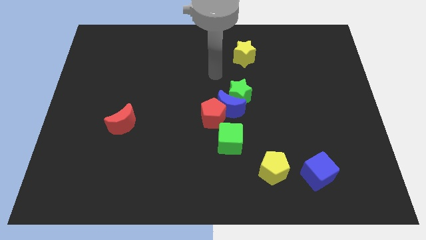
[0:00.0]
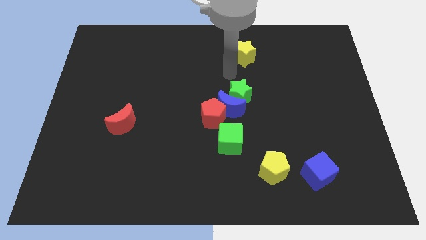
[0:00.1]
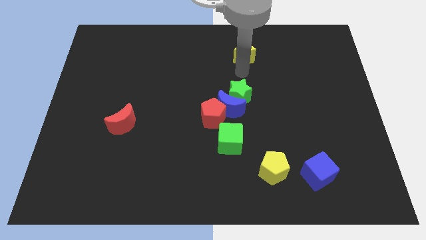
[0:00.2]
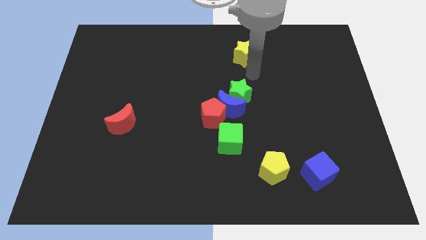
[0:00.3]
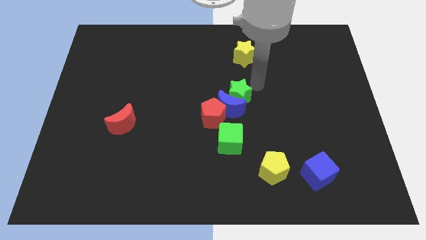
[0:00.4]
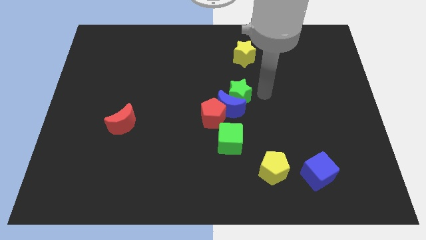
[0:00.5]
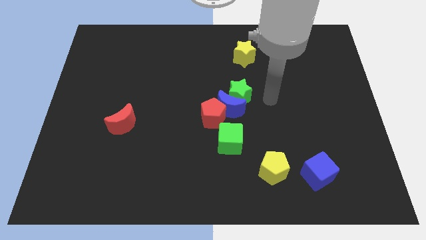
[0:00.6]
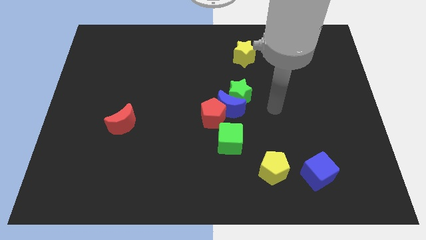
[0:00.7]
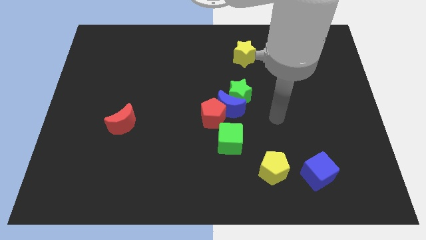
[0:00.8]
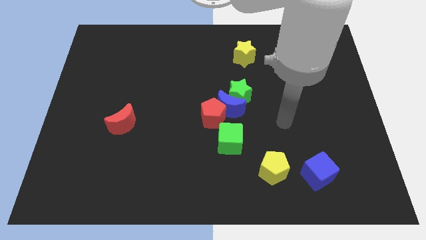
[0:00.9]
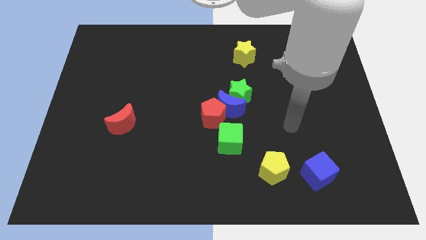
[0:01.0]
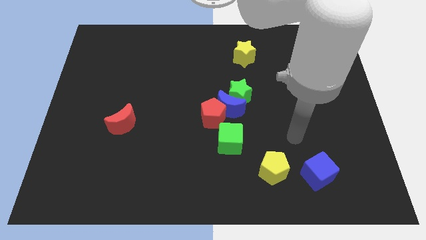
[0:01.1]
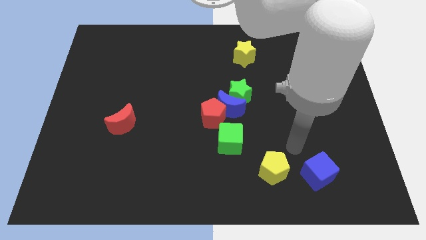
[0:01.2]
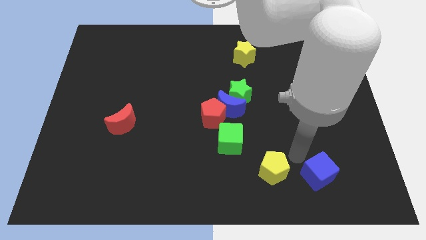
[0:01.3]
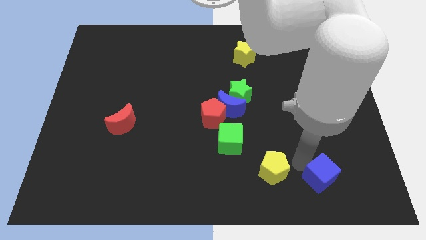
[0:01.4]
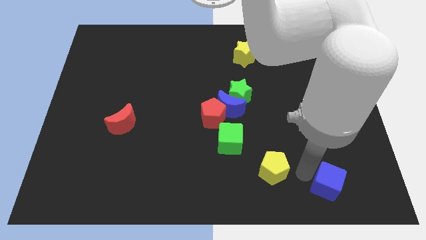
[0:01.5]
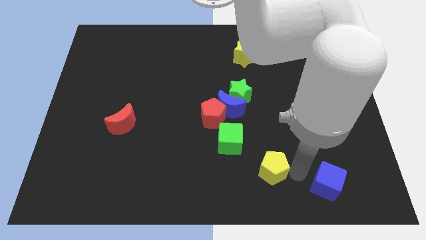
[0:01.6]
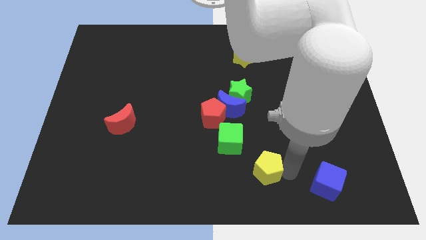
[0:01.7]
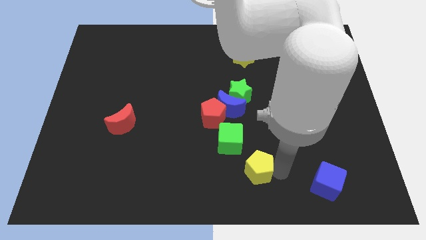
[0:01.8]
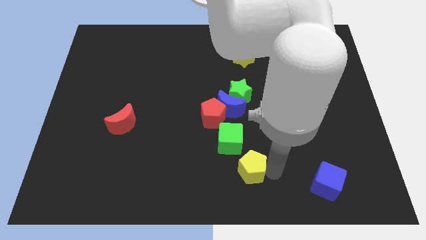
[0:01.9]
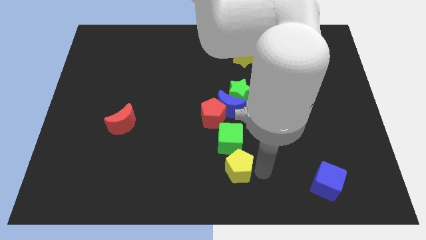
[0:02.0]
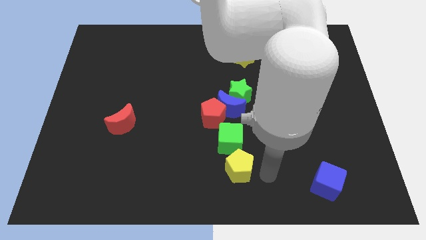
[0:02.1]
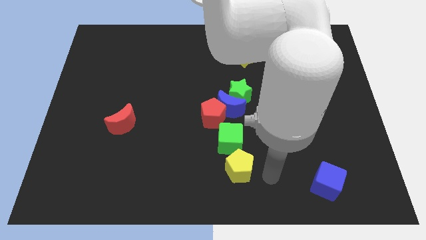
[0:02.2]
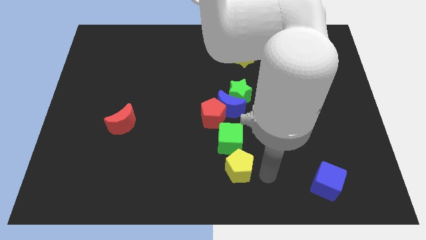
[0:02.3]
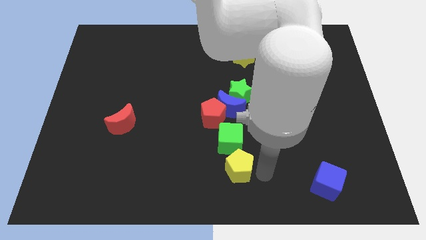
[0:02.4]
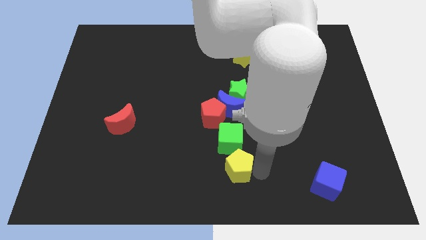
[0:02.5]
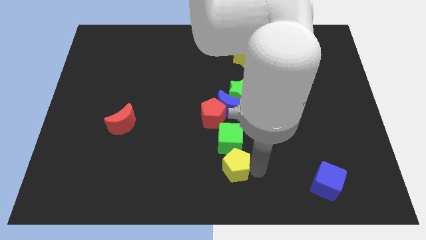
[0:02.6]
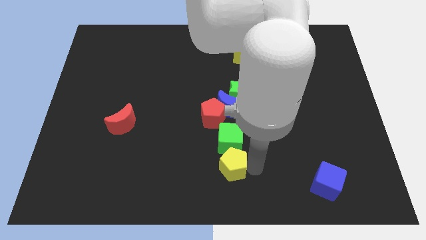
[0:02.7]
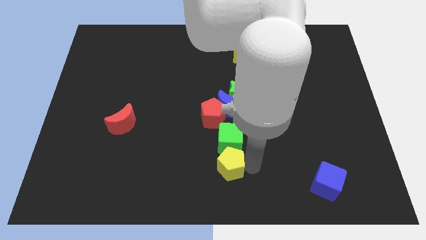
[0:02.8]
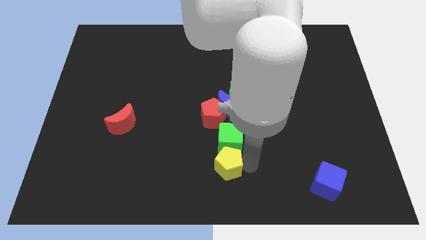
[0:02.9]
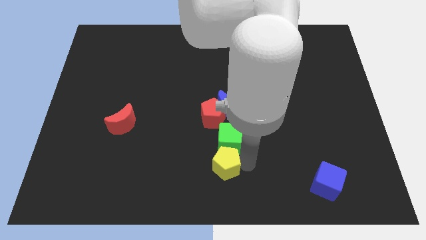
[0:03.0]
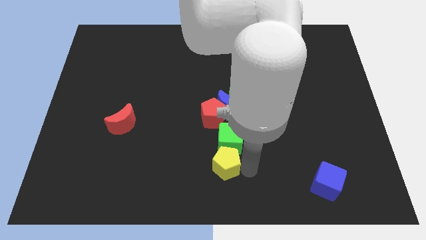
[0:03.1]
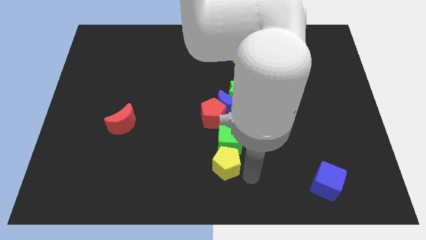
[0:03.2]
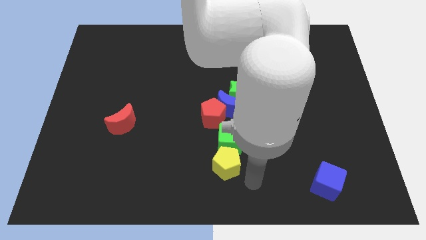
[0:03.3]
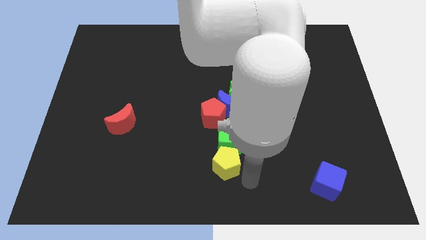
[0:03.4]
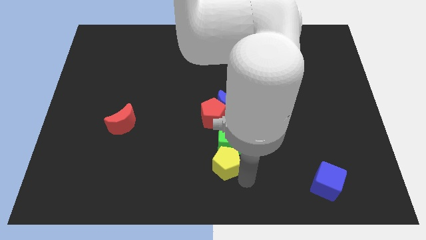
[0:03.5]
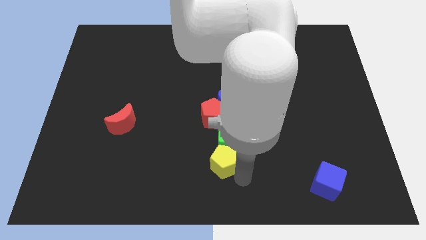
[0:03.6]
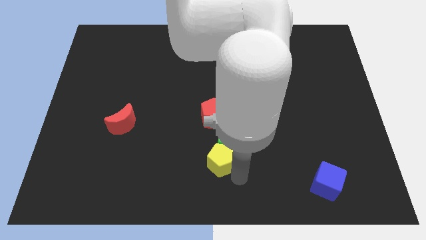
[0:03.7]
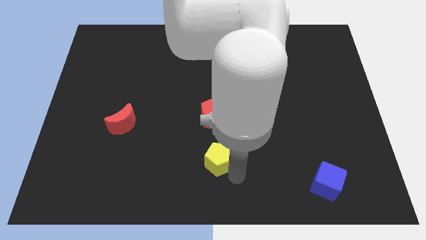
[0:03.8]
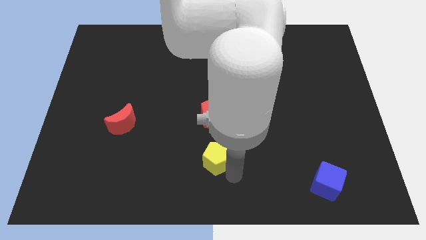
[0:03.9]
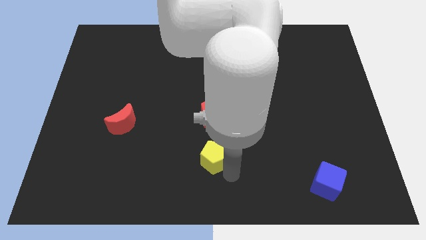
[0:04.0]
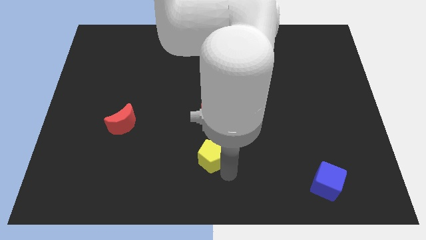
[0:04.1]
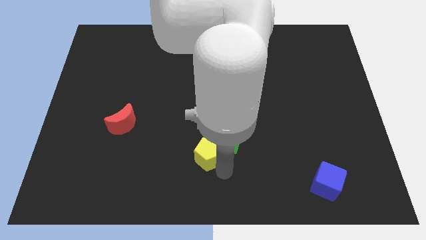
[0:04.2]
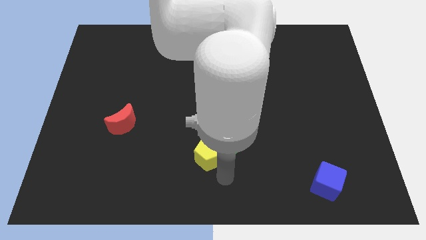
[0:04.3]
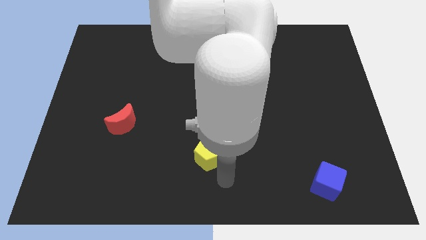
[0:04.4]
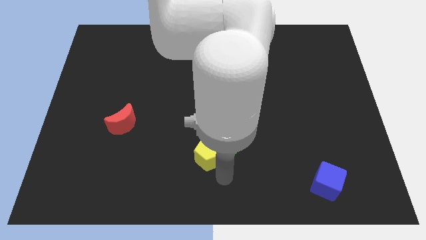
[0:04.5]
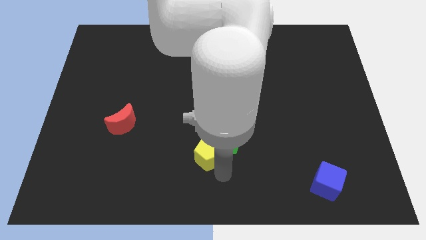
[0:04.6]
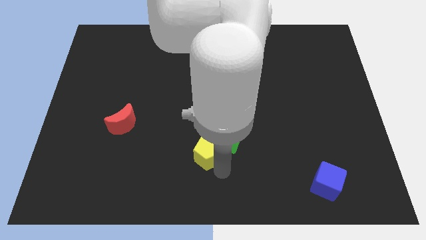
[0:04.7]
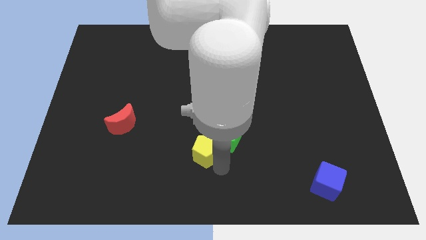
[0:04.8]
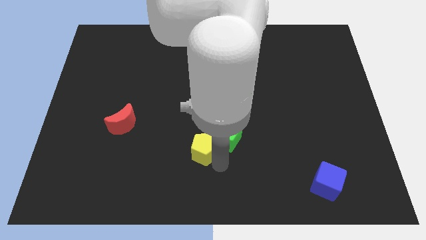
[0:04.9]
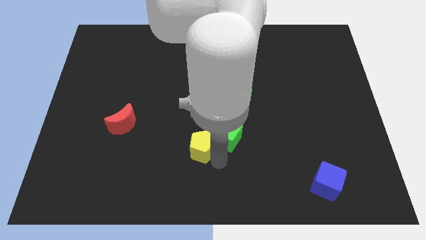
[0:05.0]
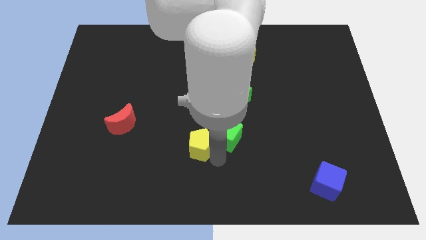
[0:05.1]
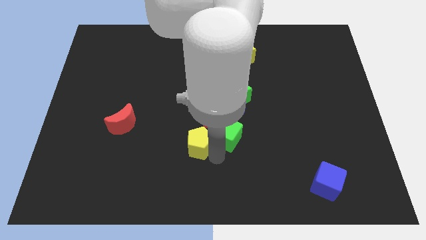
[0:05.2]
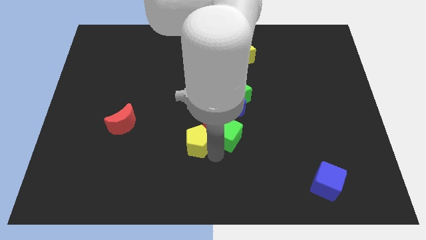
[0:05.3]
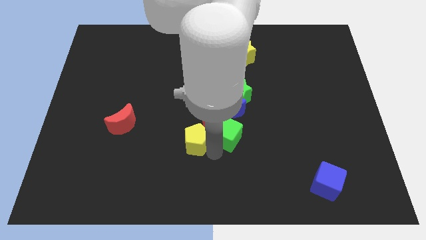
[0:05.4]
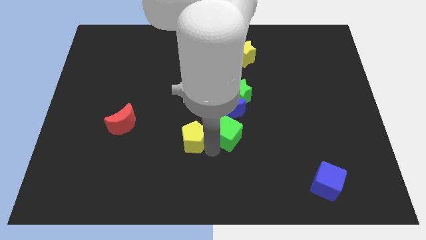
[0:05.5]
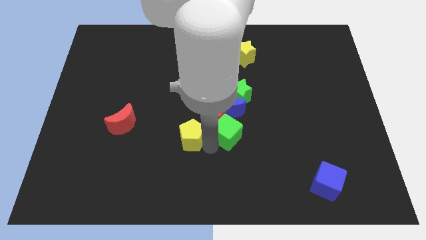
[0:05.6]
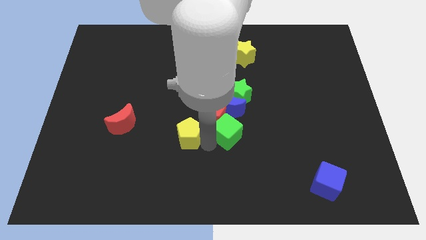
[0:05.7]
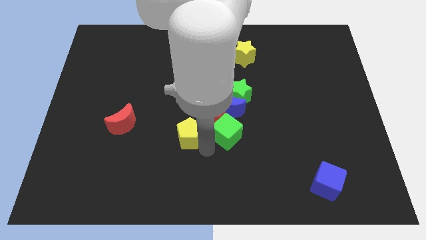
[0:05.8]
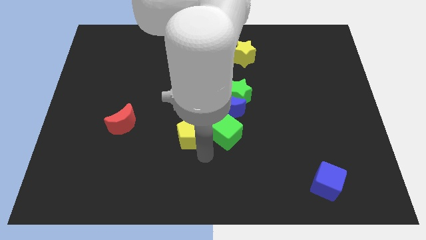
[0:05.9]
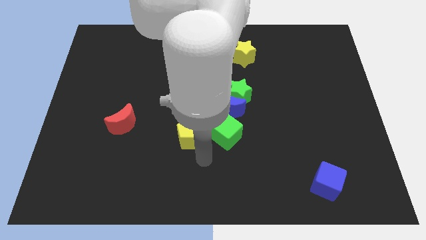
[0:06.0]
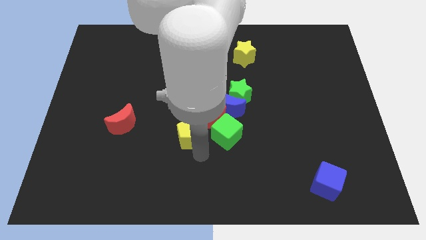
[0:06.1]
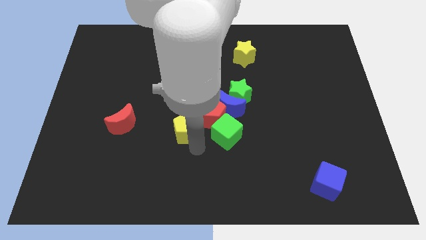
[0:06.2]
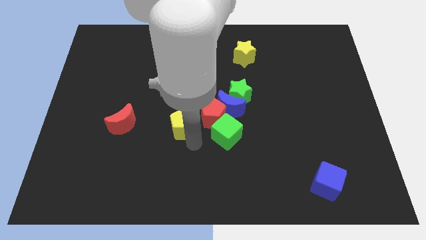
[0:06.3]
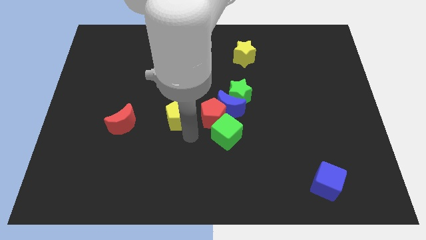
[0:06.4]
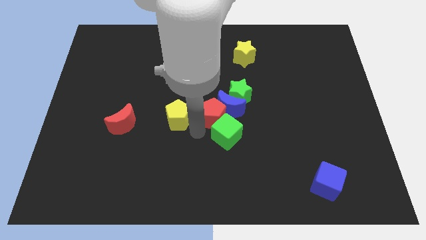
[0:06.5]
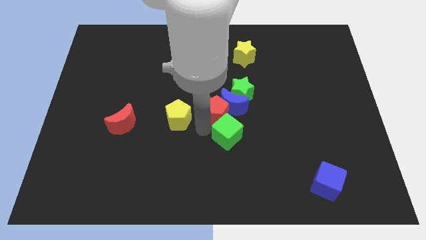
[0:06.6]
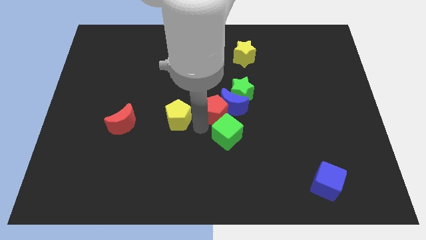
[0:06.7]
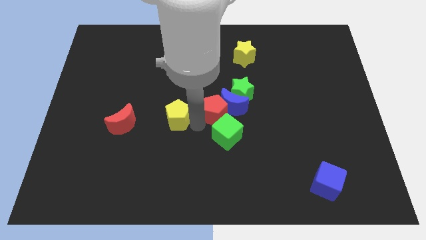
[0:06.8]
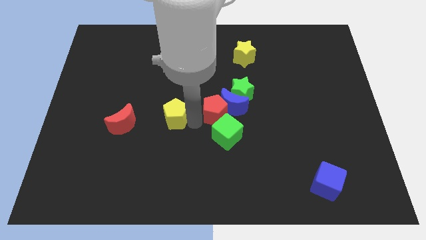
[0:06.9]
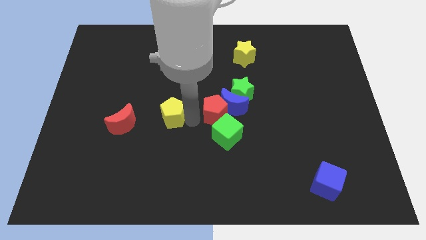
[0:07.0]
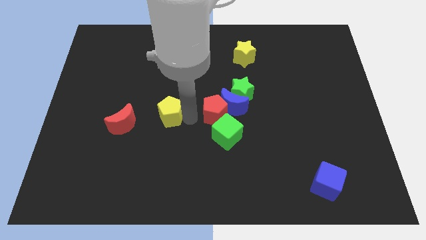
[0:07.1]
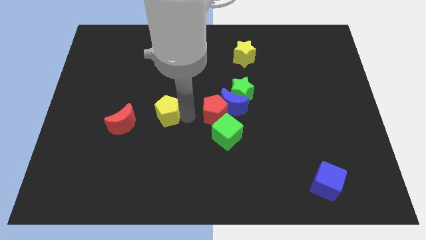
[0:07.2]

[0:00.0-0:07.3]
push the yellow pentagon to the top right side of the red moon
